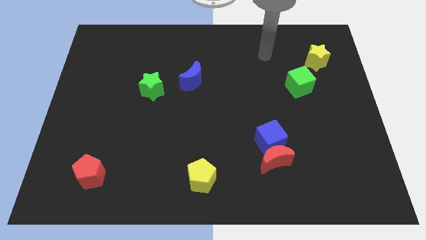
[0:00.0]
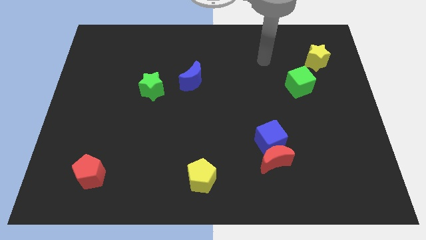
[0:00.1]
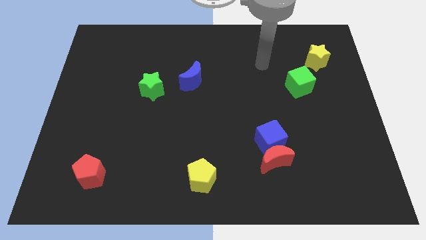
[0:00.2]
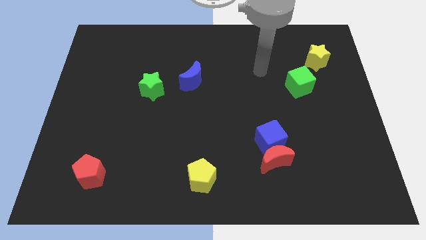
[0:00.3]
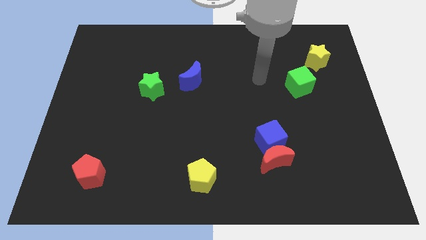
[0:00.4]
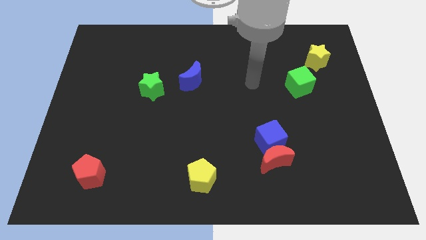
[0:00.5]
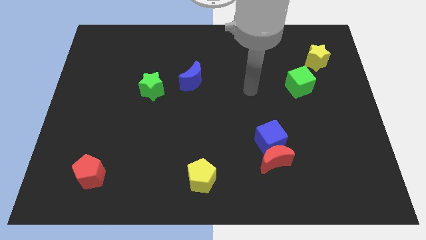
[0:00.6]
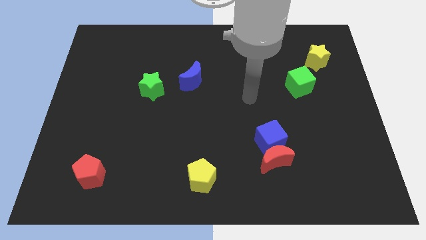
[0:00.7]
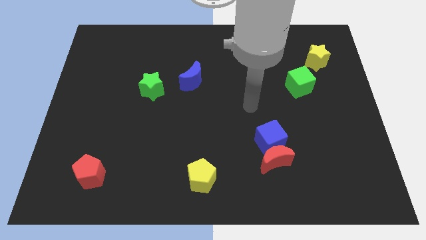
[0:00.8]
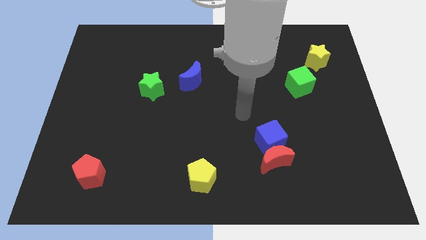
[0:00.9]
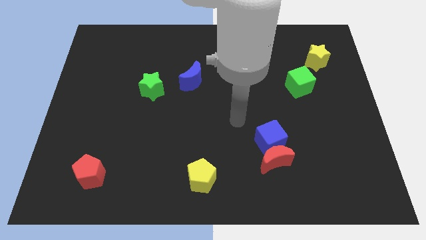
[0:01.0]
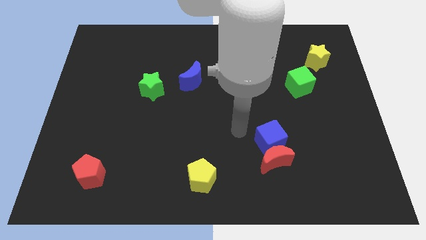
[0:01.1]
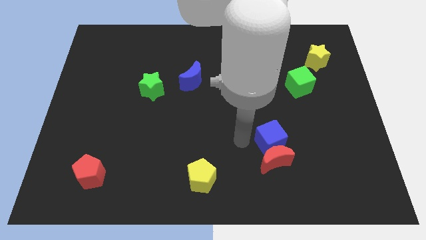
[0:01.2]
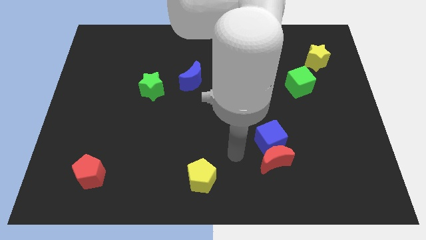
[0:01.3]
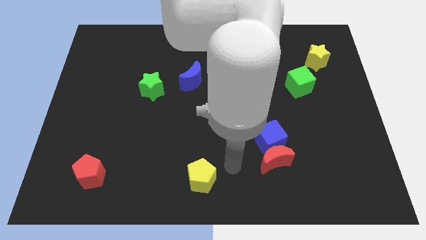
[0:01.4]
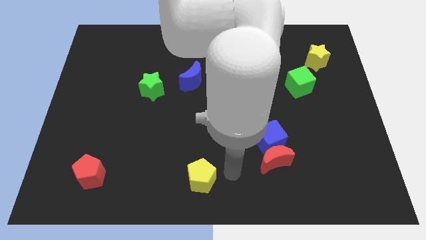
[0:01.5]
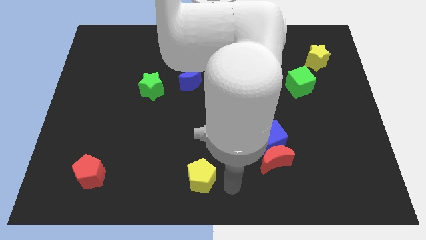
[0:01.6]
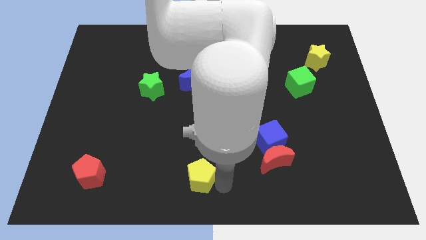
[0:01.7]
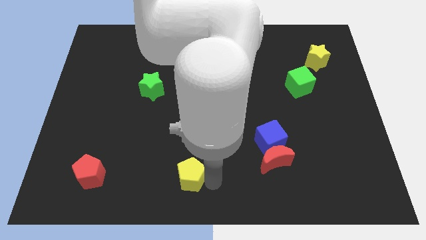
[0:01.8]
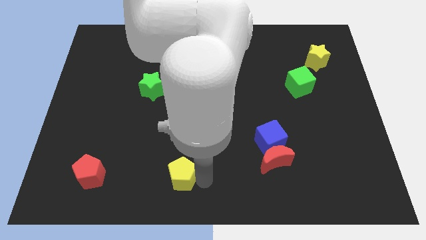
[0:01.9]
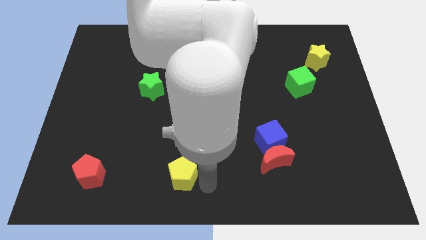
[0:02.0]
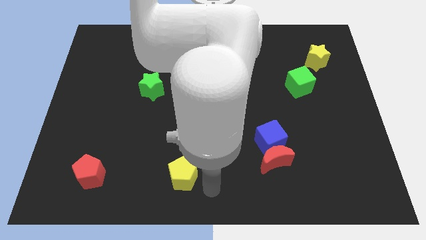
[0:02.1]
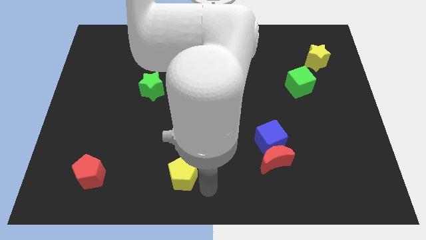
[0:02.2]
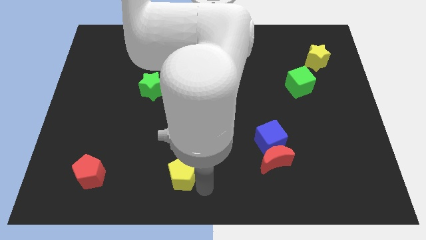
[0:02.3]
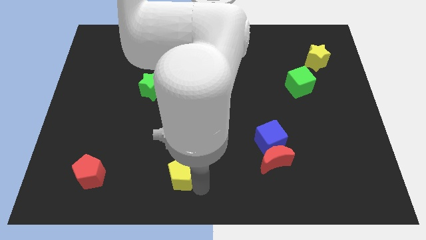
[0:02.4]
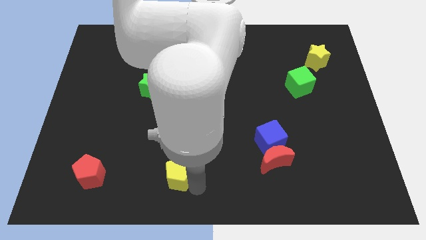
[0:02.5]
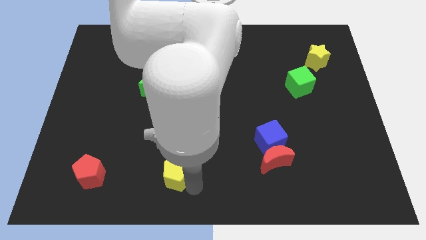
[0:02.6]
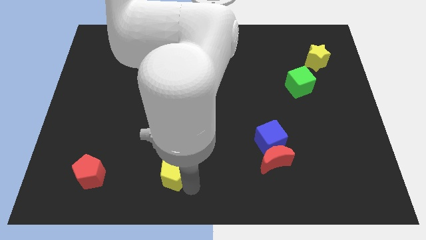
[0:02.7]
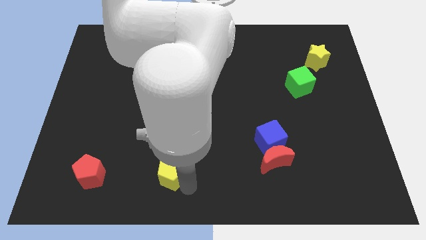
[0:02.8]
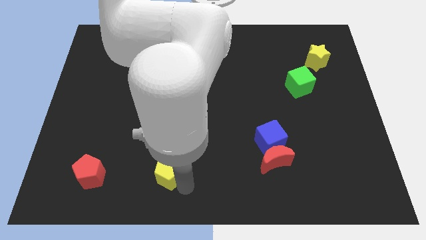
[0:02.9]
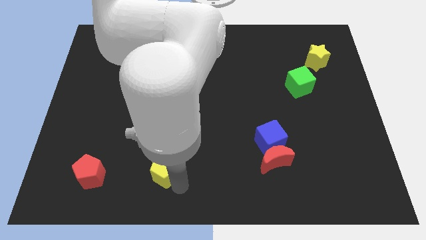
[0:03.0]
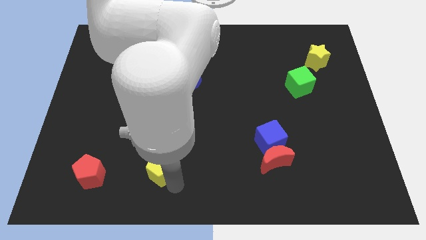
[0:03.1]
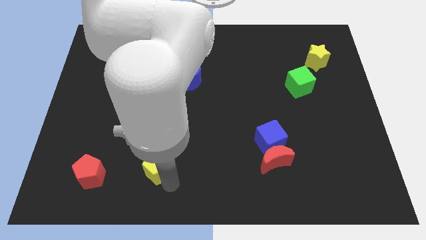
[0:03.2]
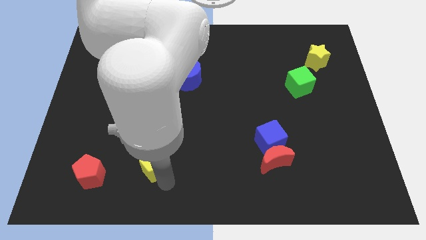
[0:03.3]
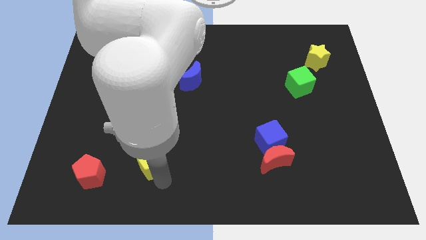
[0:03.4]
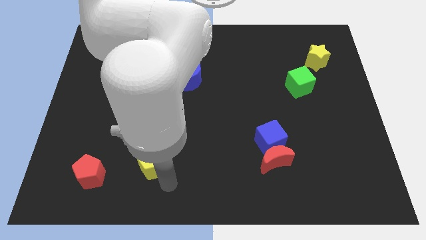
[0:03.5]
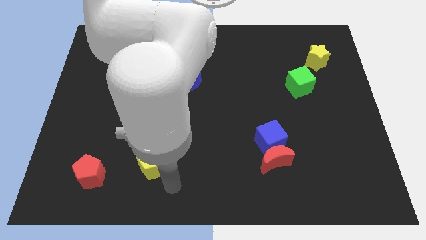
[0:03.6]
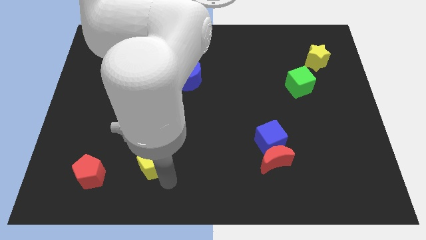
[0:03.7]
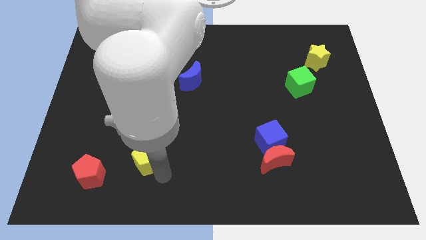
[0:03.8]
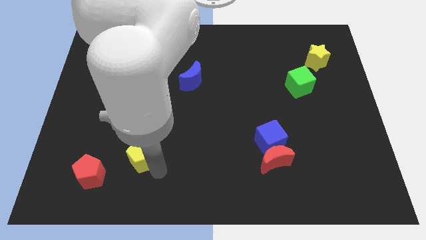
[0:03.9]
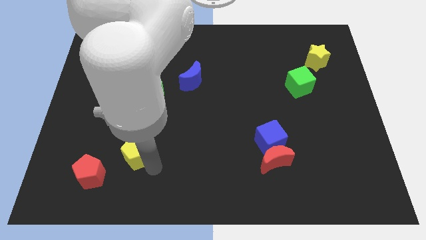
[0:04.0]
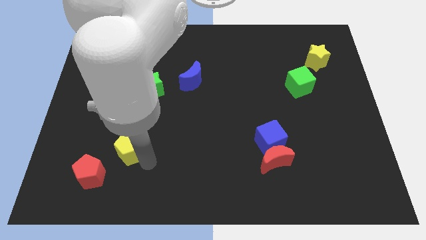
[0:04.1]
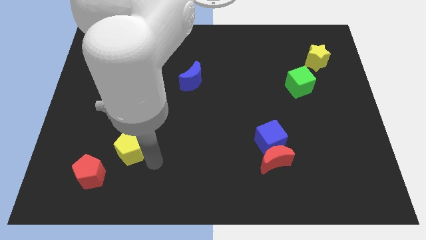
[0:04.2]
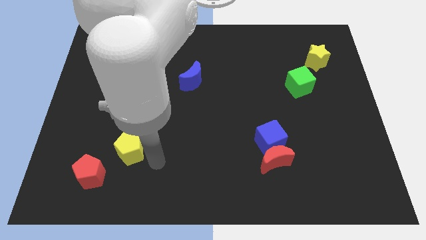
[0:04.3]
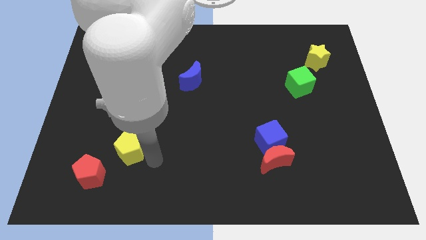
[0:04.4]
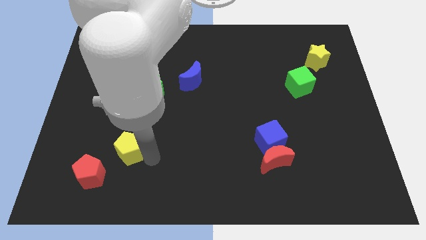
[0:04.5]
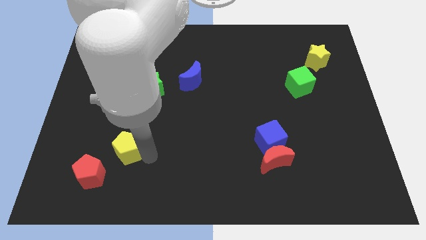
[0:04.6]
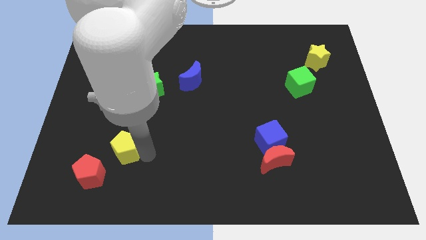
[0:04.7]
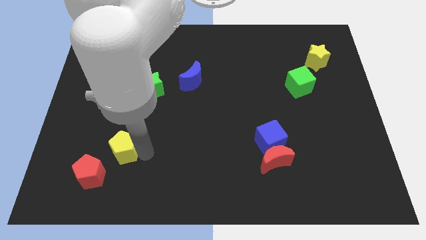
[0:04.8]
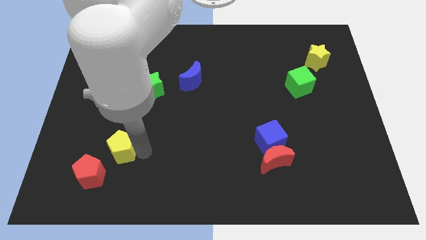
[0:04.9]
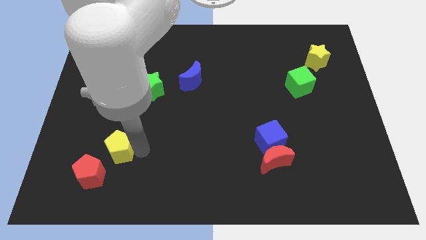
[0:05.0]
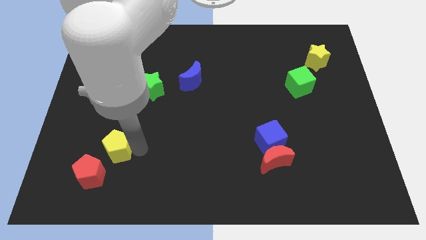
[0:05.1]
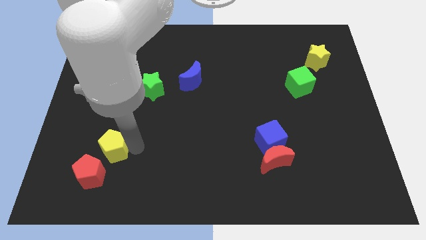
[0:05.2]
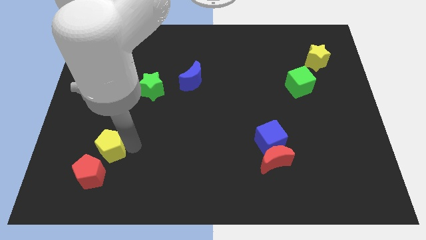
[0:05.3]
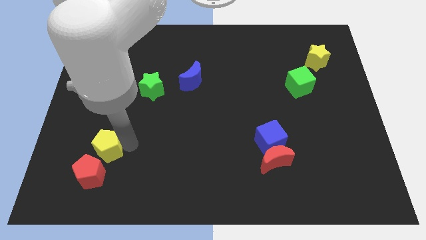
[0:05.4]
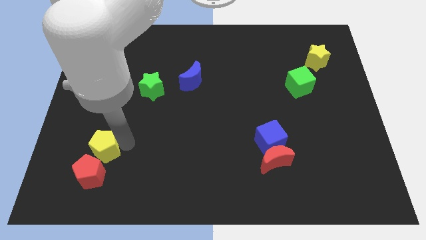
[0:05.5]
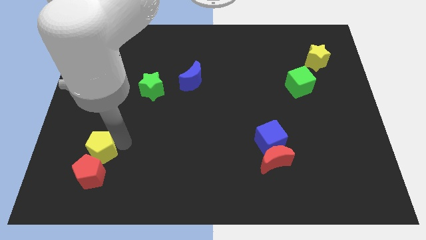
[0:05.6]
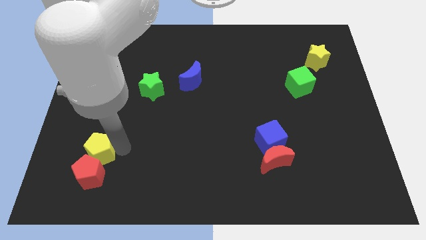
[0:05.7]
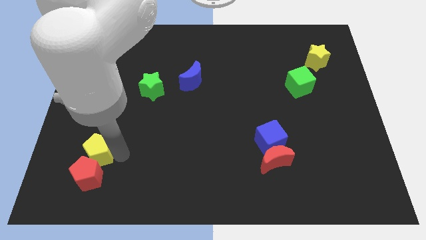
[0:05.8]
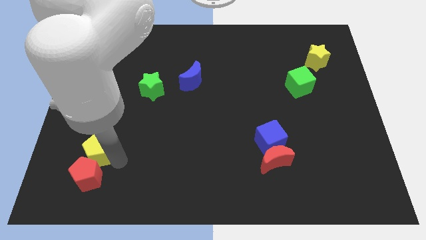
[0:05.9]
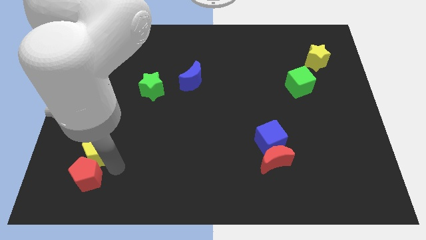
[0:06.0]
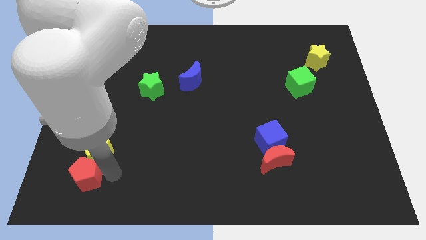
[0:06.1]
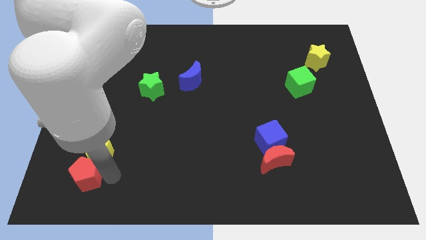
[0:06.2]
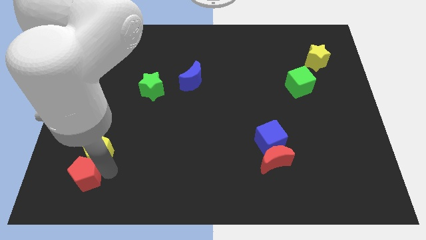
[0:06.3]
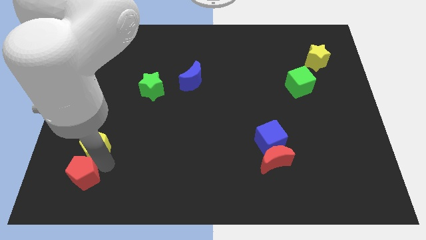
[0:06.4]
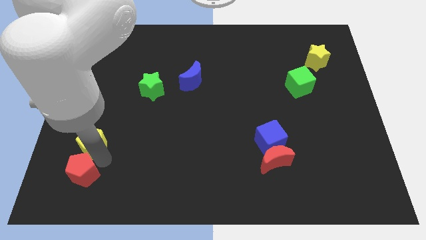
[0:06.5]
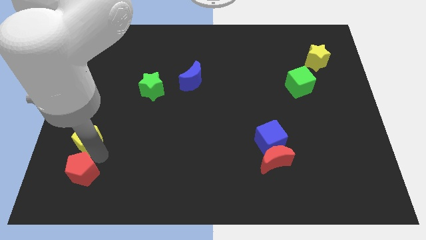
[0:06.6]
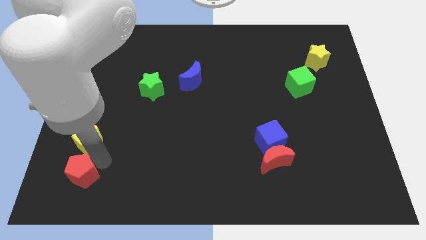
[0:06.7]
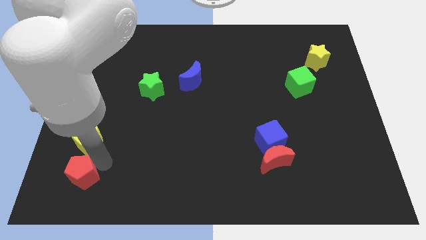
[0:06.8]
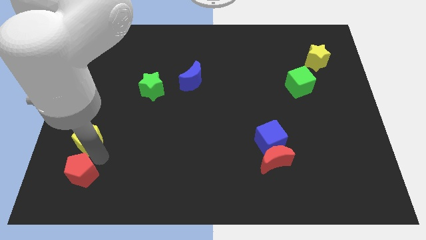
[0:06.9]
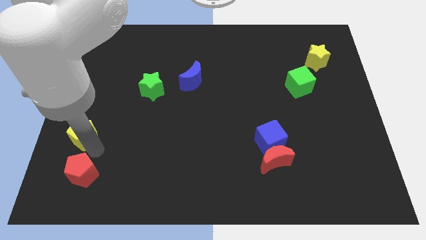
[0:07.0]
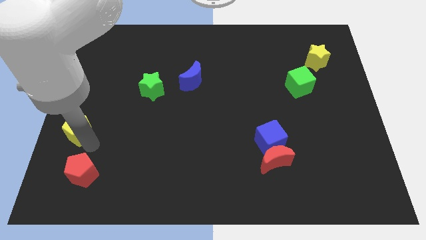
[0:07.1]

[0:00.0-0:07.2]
move the yellow pentagon to the left side
